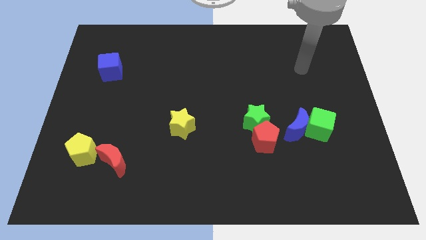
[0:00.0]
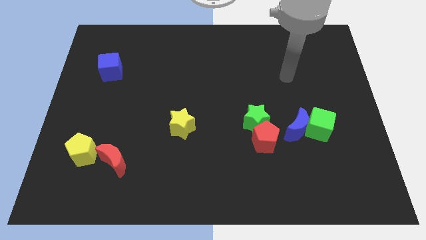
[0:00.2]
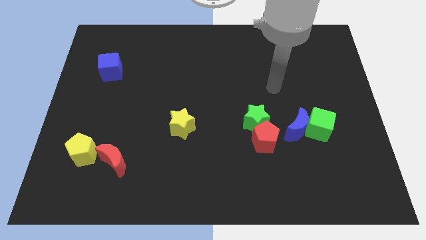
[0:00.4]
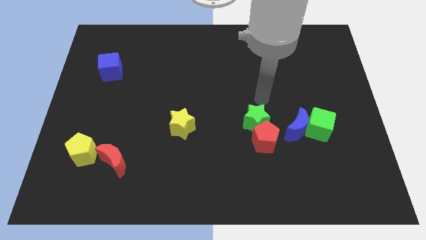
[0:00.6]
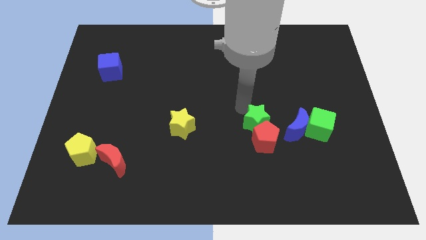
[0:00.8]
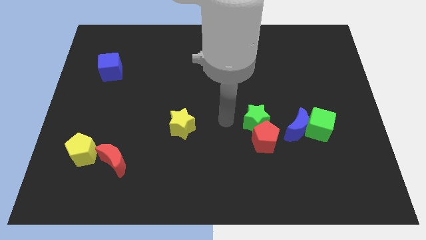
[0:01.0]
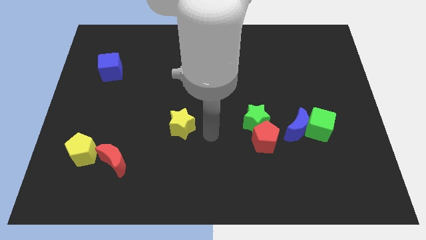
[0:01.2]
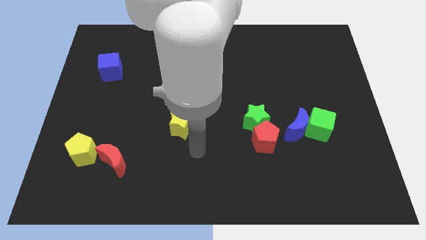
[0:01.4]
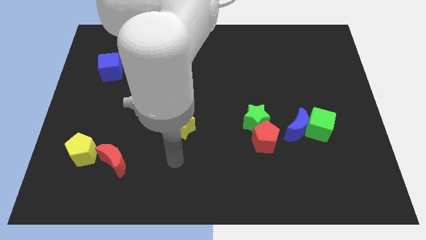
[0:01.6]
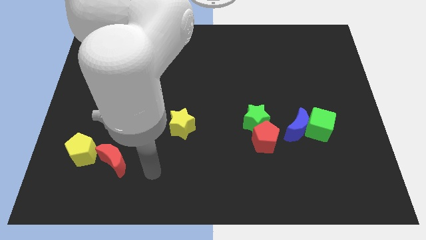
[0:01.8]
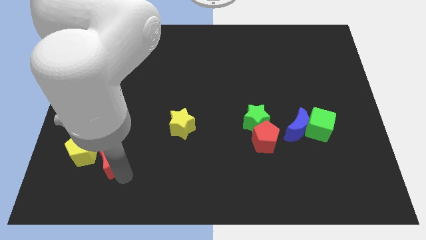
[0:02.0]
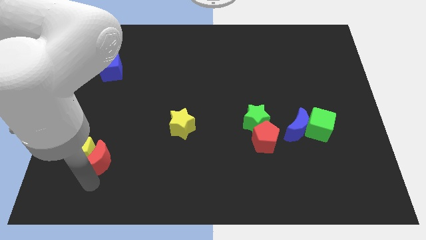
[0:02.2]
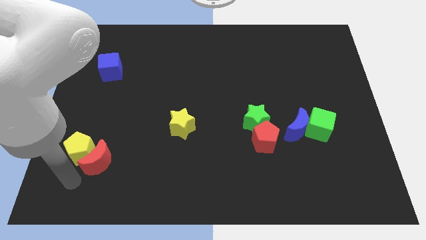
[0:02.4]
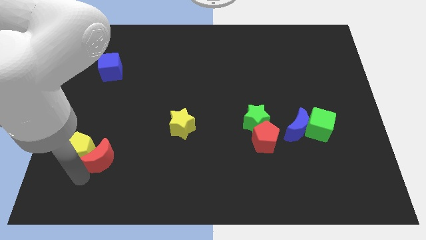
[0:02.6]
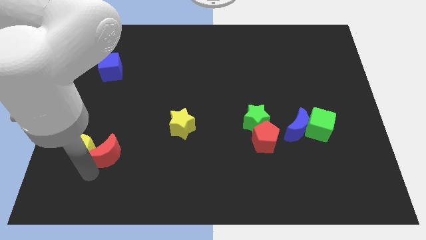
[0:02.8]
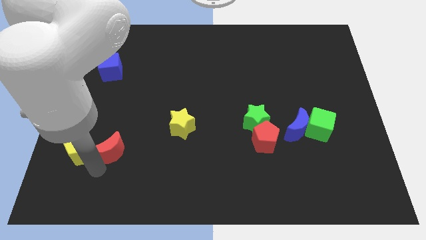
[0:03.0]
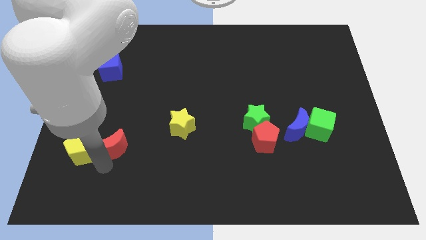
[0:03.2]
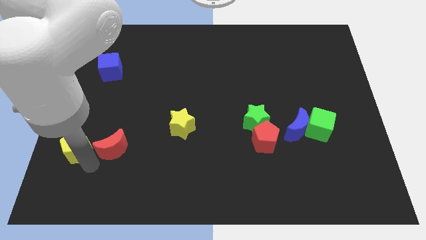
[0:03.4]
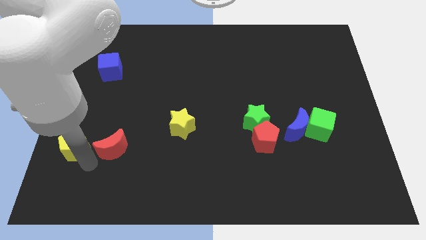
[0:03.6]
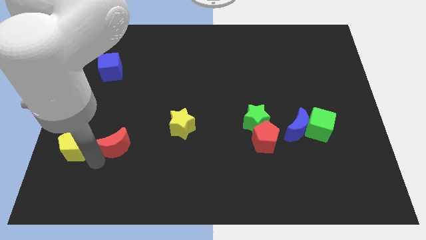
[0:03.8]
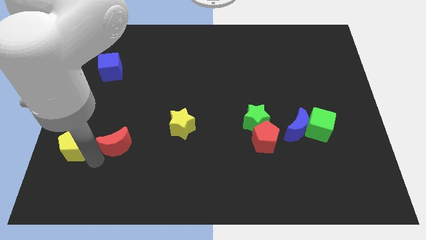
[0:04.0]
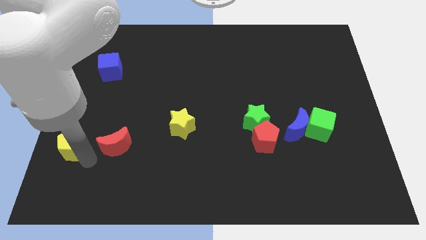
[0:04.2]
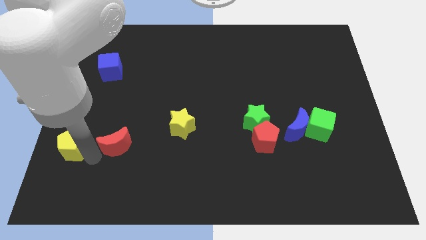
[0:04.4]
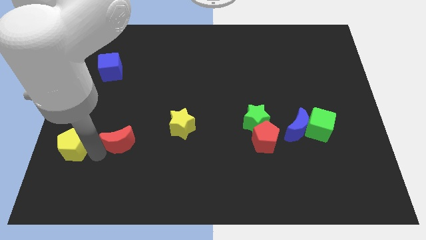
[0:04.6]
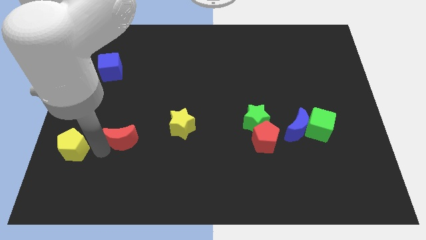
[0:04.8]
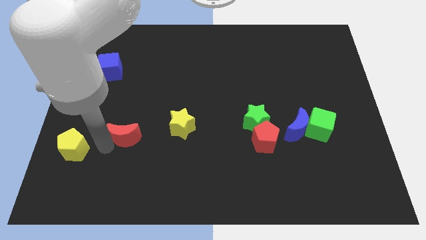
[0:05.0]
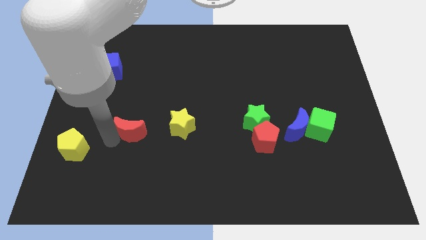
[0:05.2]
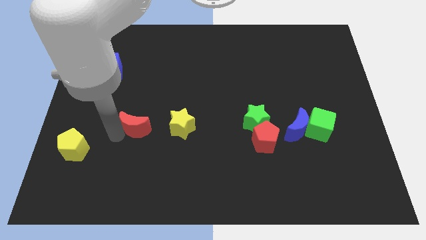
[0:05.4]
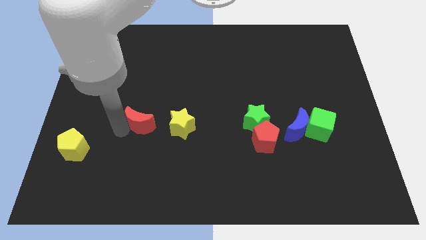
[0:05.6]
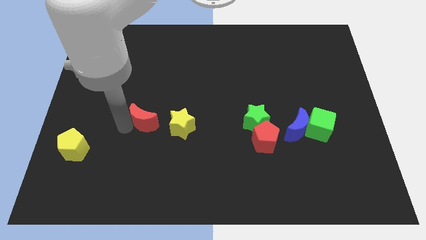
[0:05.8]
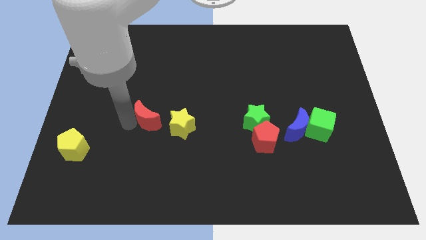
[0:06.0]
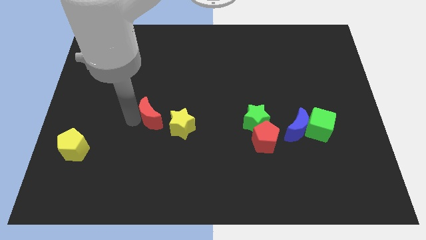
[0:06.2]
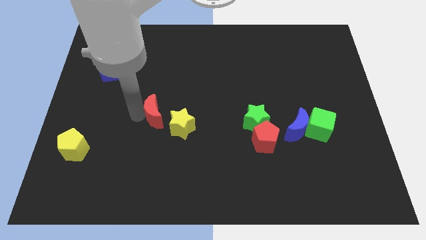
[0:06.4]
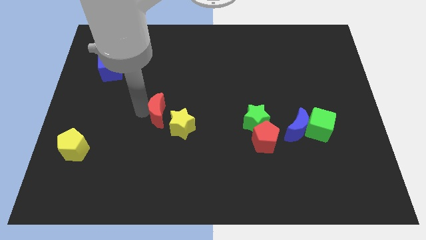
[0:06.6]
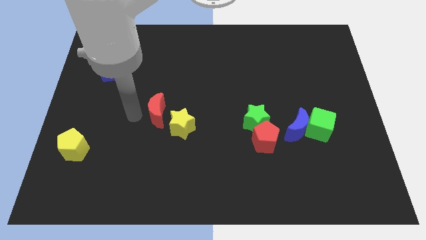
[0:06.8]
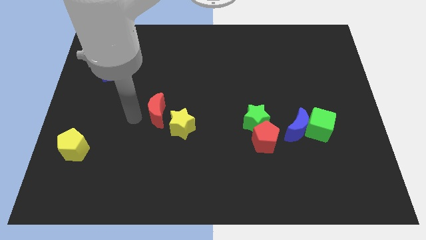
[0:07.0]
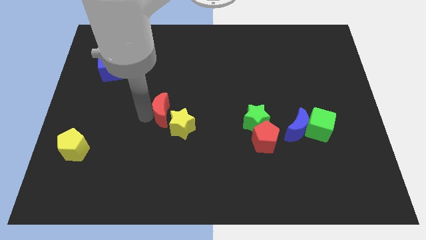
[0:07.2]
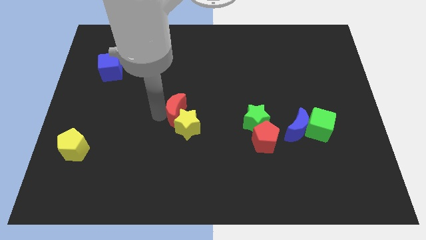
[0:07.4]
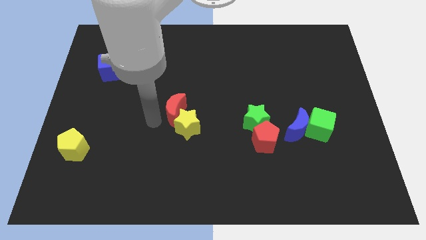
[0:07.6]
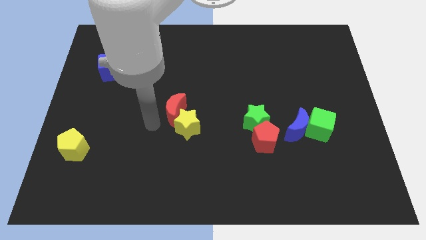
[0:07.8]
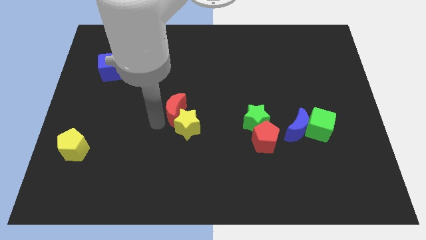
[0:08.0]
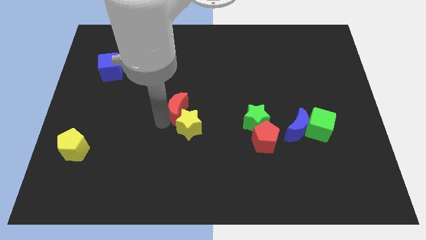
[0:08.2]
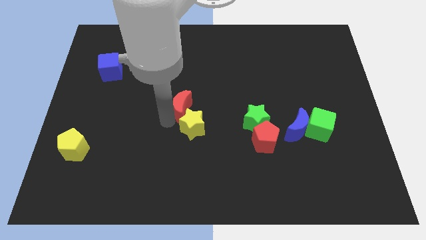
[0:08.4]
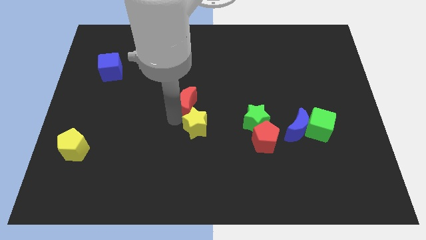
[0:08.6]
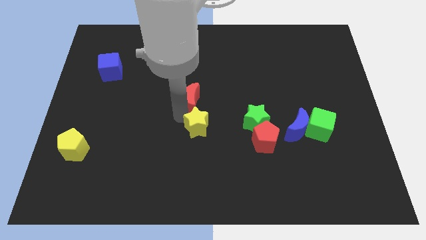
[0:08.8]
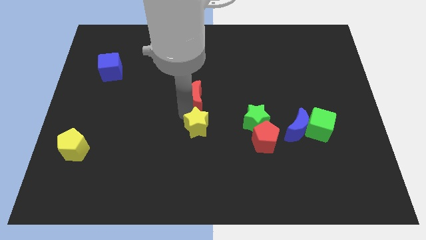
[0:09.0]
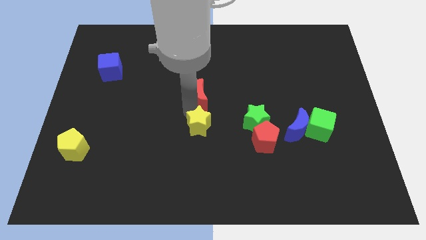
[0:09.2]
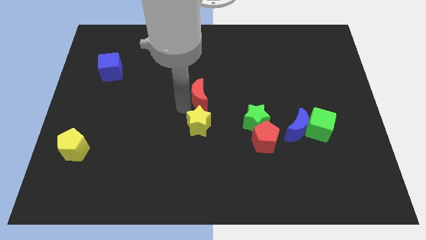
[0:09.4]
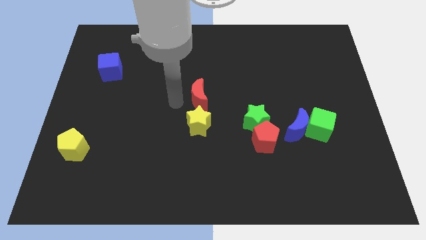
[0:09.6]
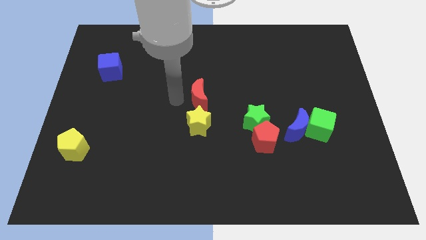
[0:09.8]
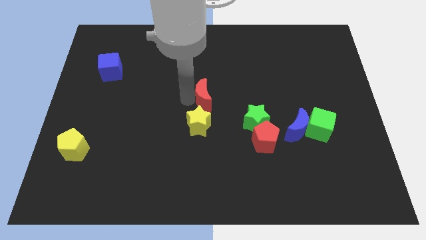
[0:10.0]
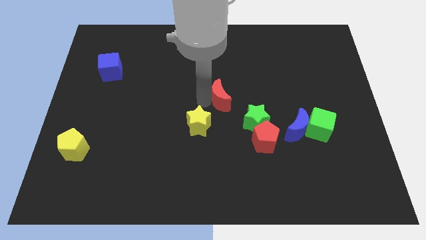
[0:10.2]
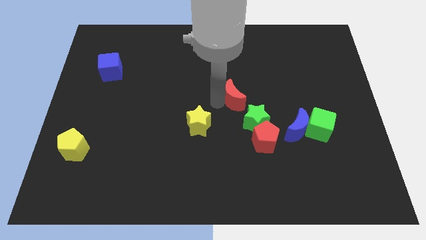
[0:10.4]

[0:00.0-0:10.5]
put the red moon to the top side of the green star

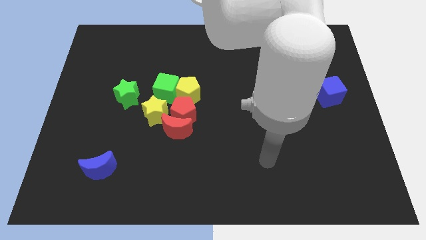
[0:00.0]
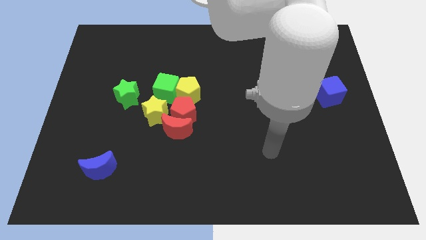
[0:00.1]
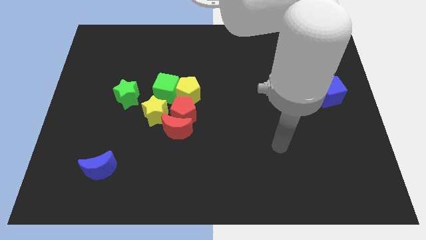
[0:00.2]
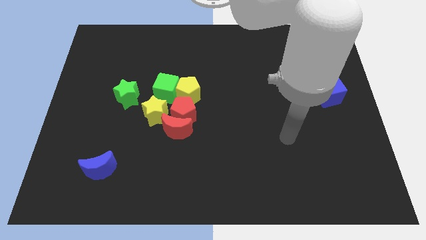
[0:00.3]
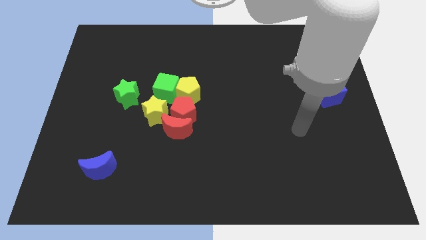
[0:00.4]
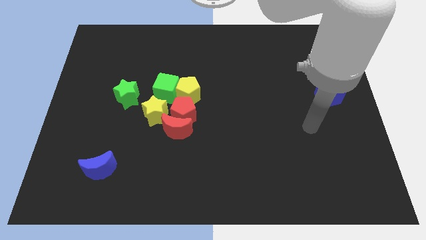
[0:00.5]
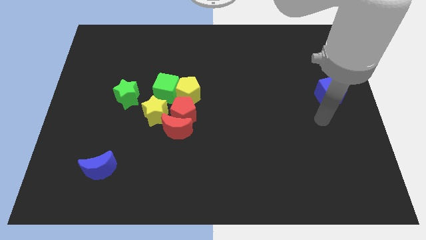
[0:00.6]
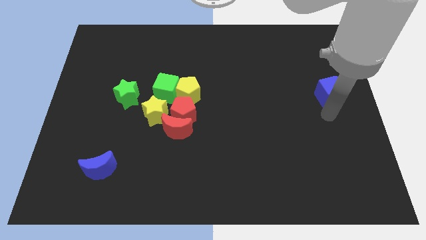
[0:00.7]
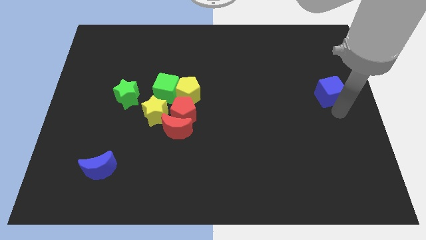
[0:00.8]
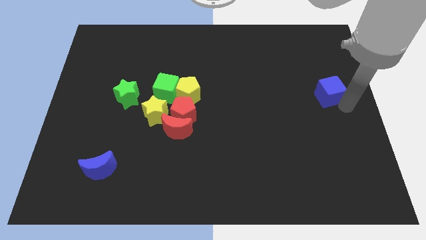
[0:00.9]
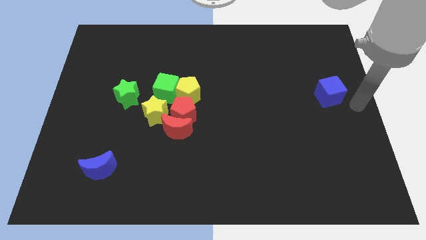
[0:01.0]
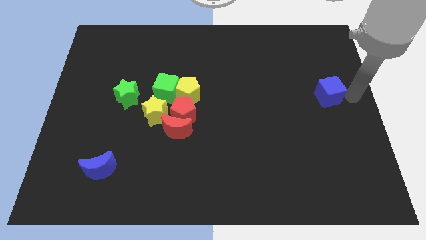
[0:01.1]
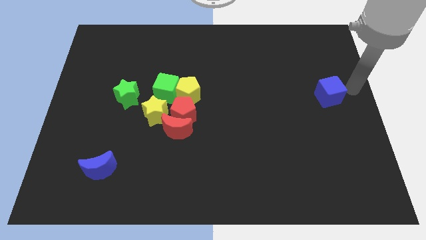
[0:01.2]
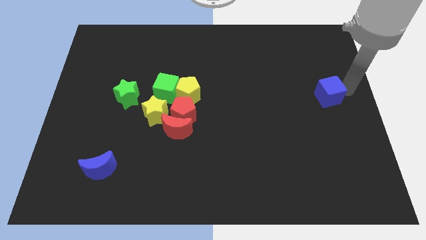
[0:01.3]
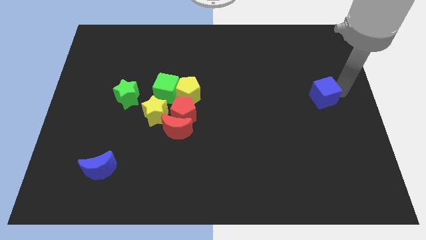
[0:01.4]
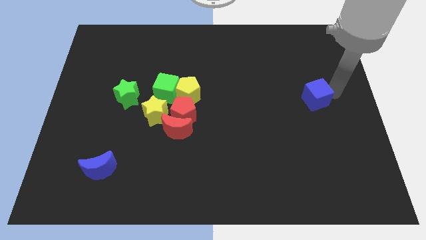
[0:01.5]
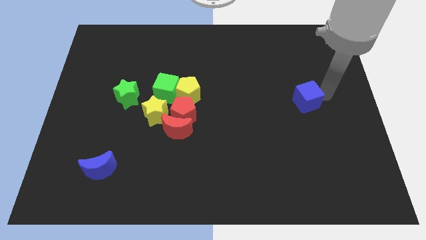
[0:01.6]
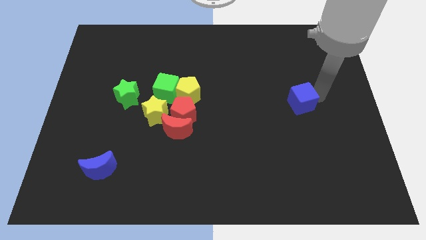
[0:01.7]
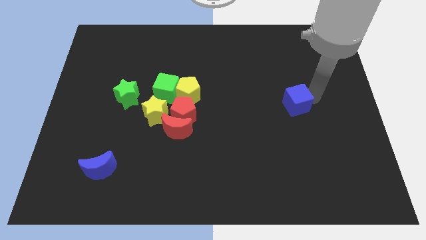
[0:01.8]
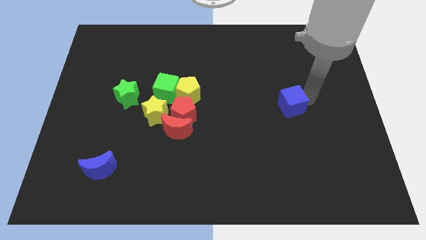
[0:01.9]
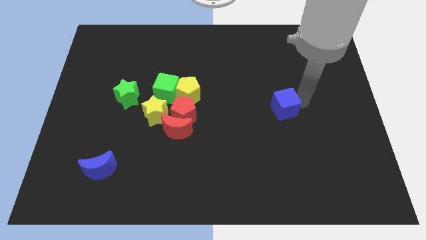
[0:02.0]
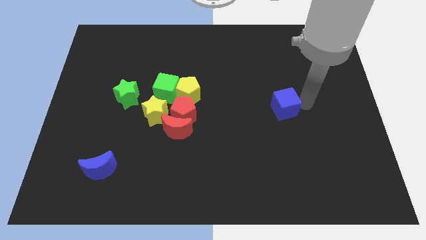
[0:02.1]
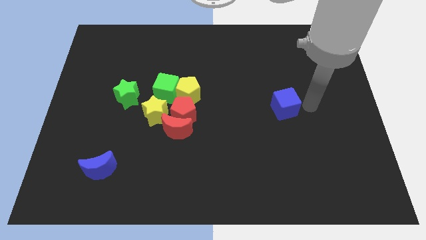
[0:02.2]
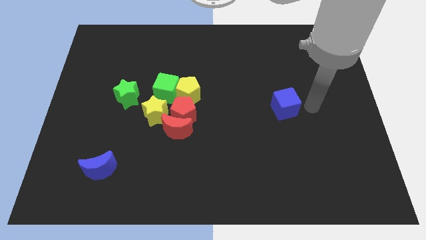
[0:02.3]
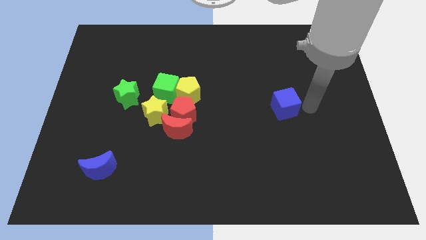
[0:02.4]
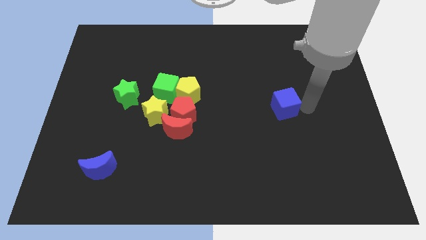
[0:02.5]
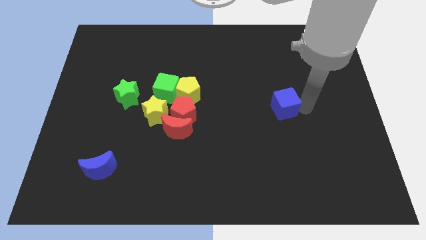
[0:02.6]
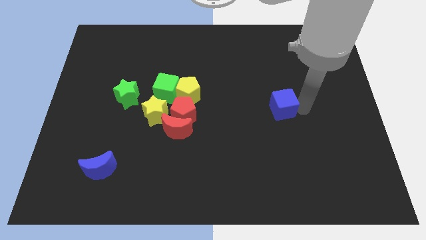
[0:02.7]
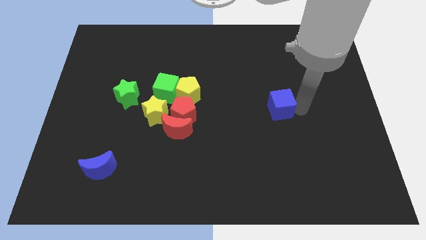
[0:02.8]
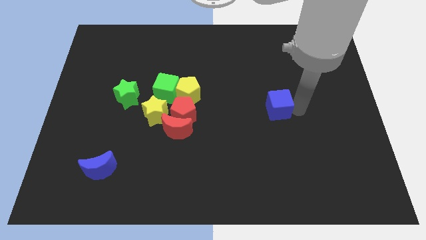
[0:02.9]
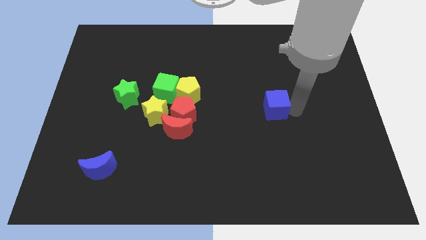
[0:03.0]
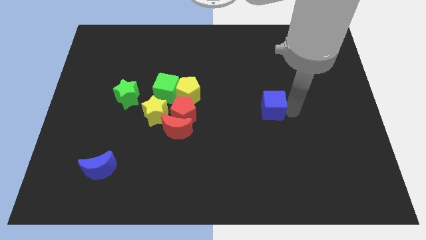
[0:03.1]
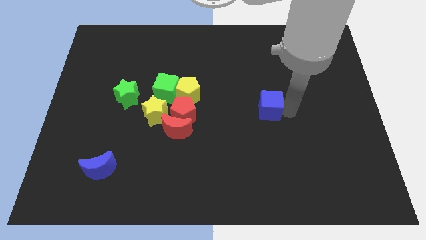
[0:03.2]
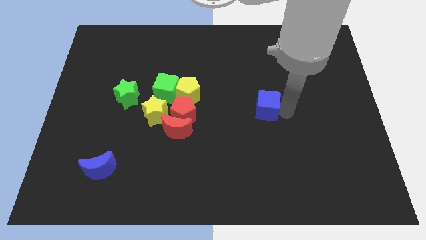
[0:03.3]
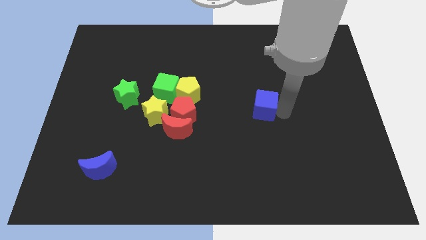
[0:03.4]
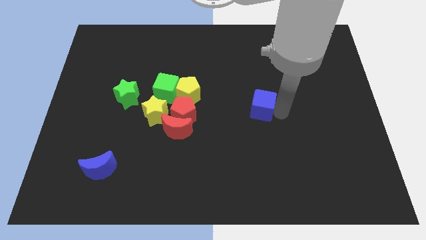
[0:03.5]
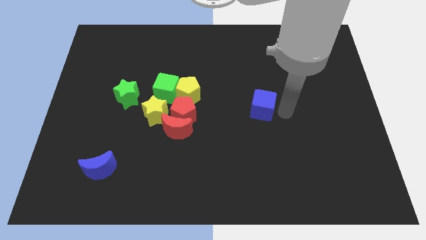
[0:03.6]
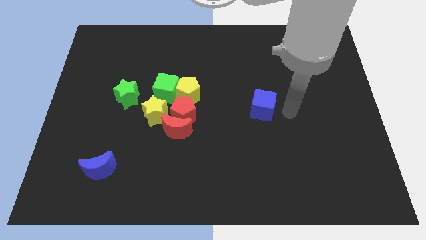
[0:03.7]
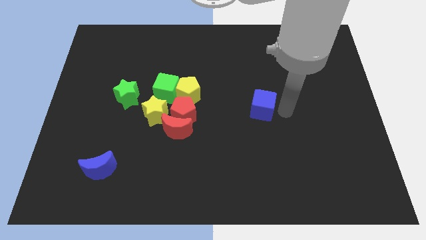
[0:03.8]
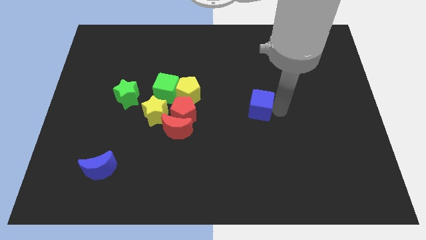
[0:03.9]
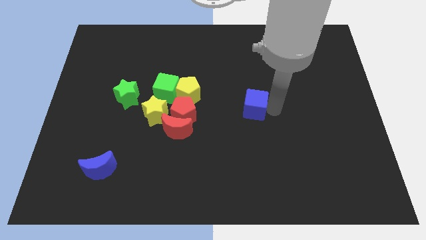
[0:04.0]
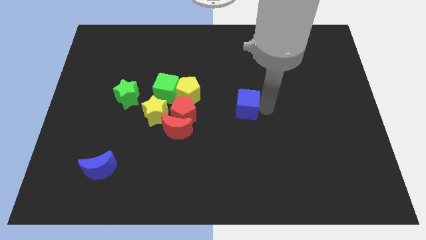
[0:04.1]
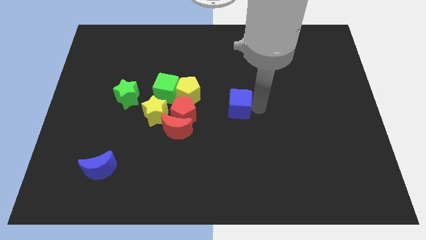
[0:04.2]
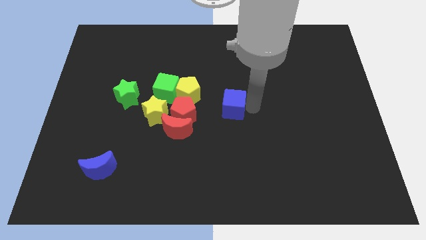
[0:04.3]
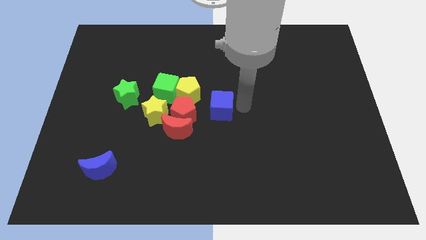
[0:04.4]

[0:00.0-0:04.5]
slide the blue cube diagonally up and to the right of the red moon
